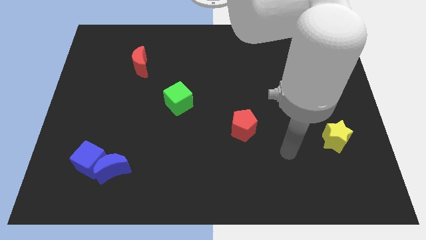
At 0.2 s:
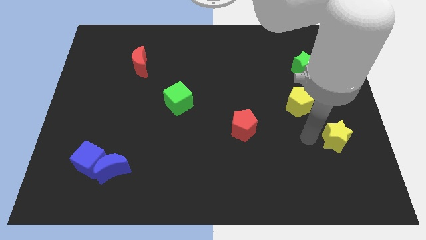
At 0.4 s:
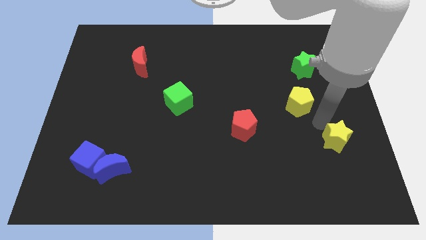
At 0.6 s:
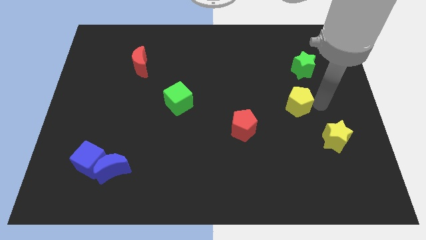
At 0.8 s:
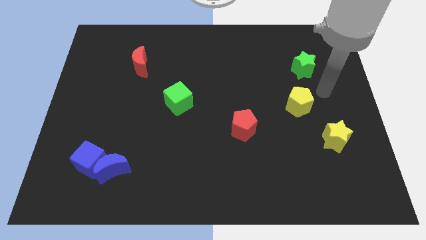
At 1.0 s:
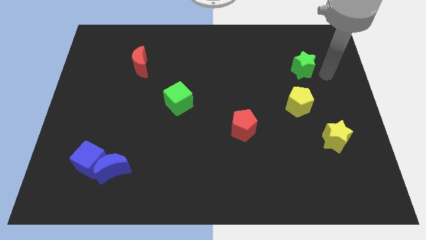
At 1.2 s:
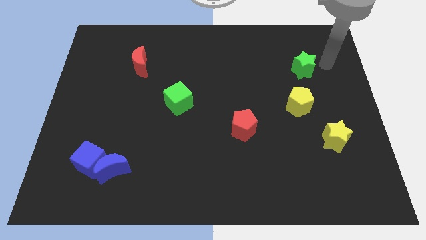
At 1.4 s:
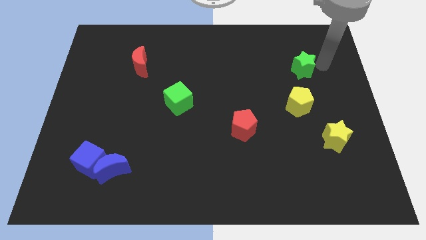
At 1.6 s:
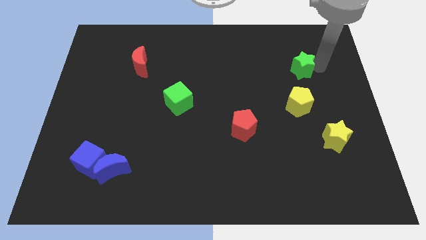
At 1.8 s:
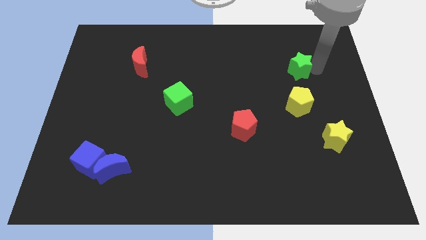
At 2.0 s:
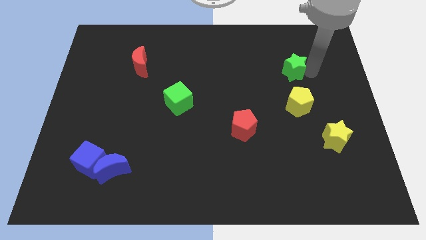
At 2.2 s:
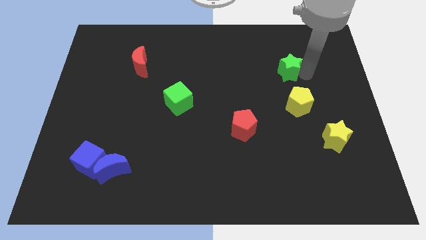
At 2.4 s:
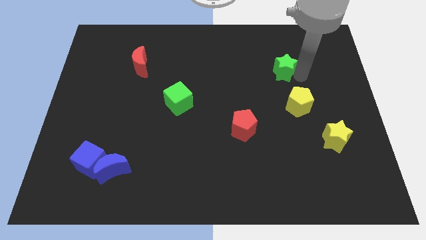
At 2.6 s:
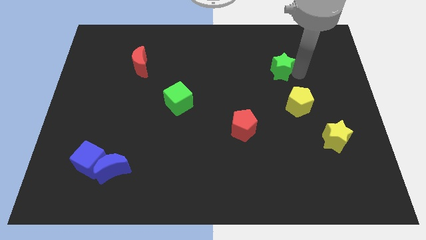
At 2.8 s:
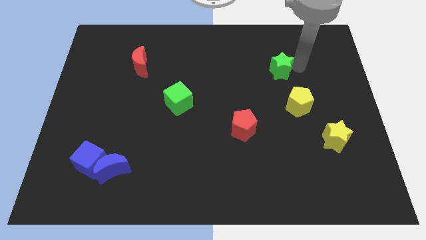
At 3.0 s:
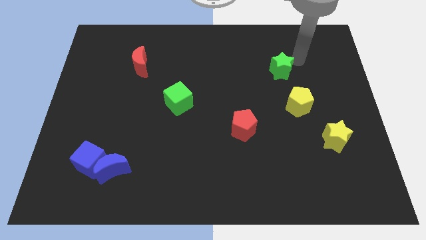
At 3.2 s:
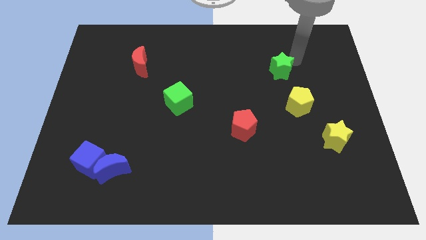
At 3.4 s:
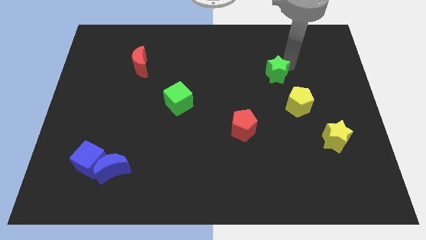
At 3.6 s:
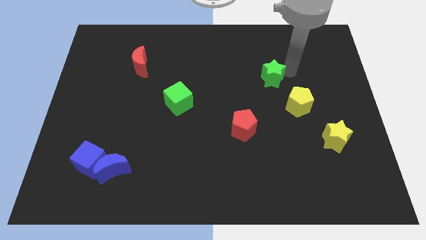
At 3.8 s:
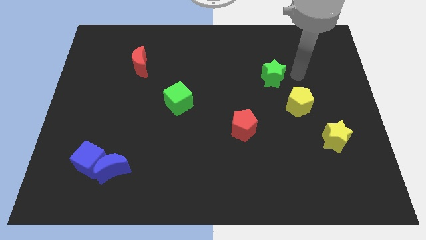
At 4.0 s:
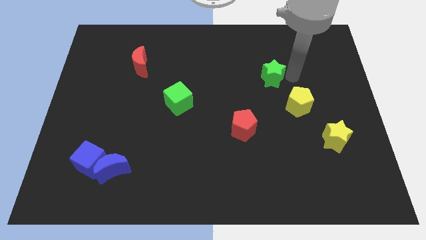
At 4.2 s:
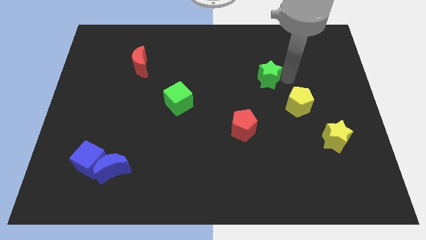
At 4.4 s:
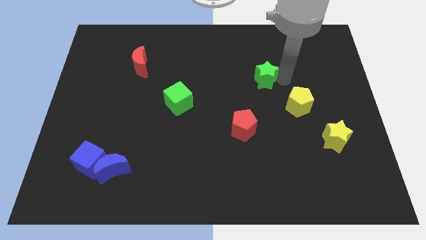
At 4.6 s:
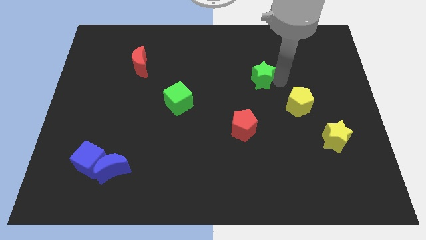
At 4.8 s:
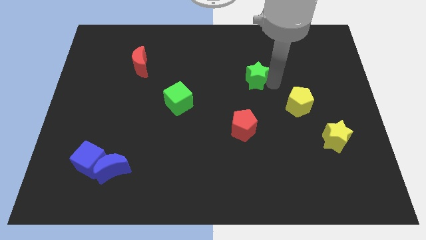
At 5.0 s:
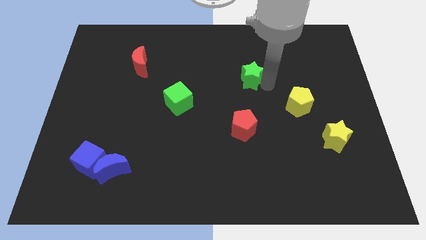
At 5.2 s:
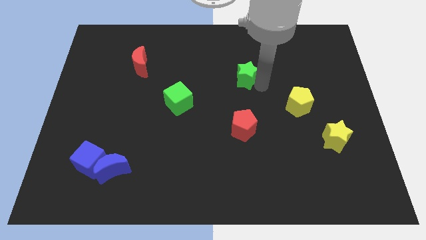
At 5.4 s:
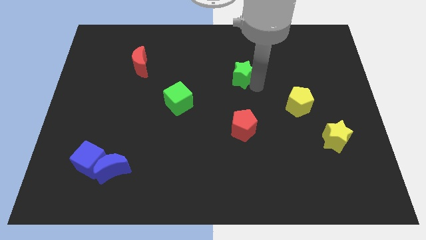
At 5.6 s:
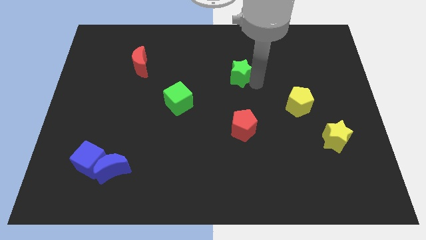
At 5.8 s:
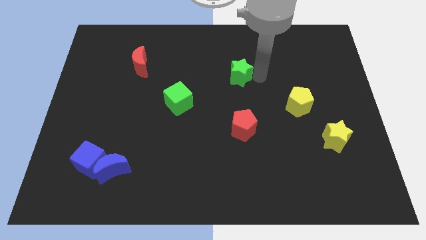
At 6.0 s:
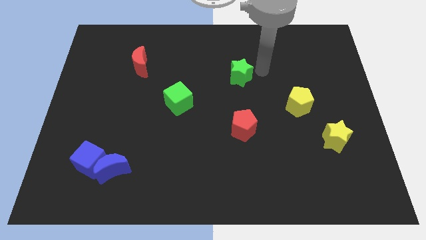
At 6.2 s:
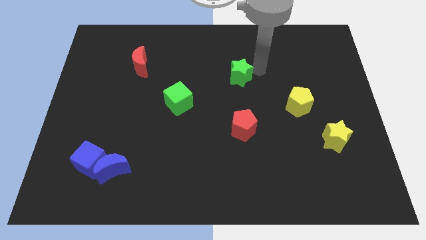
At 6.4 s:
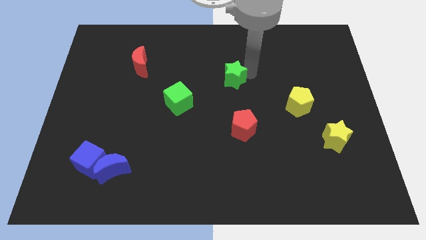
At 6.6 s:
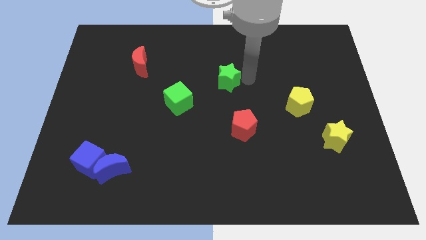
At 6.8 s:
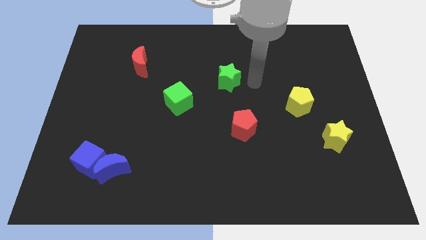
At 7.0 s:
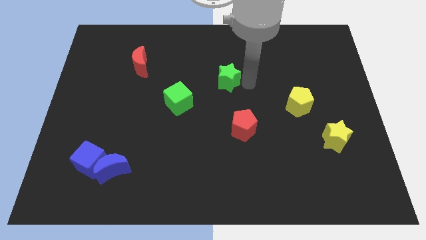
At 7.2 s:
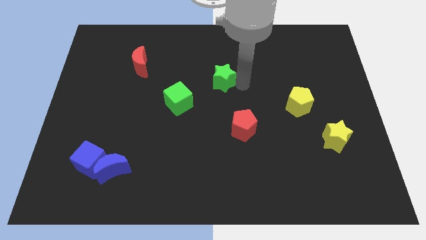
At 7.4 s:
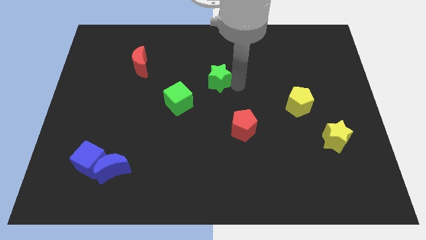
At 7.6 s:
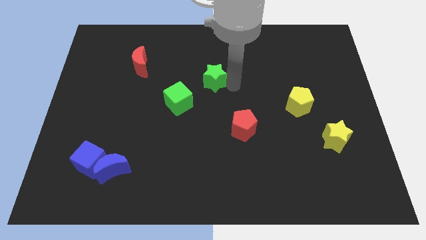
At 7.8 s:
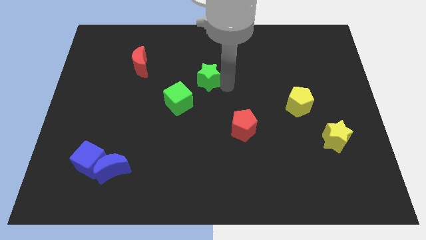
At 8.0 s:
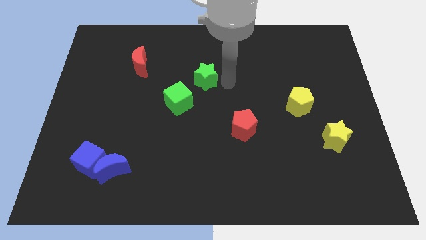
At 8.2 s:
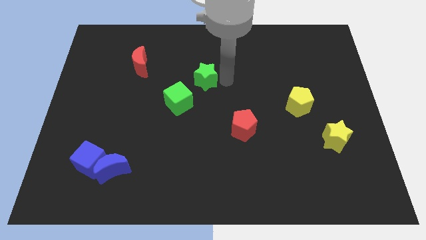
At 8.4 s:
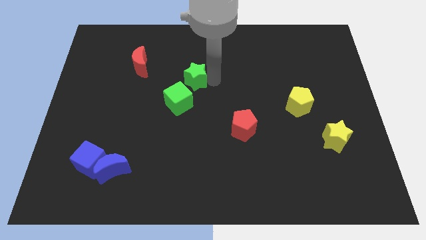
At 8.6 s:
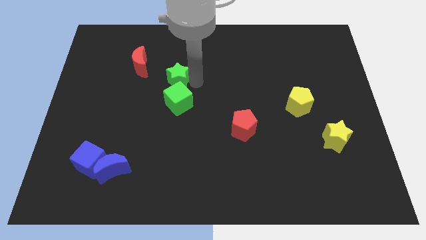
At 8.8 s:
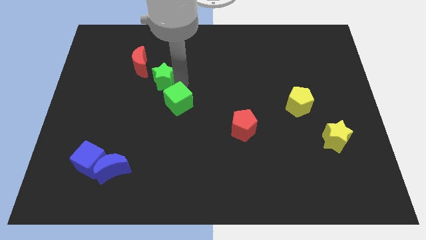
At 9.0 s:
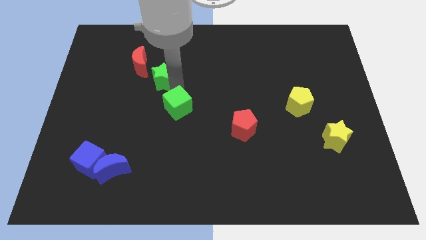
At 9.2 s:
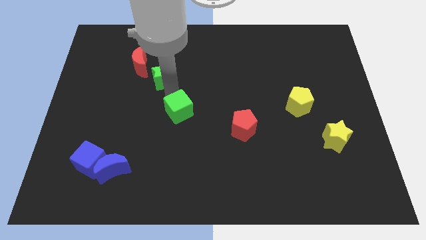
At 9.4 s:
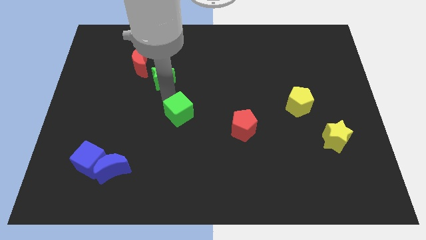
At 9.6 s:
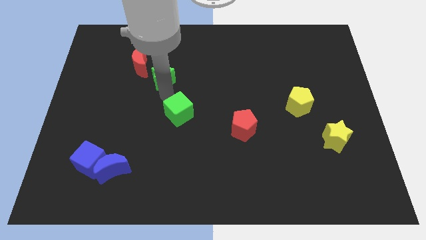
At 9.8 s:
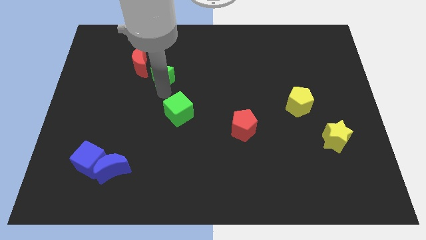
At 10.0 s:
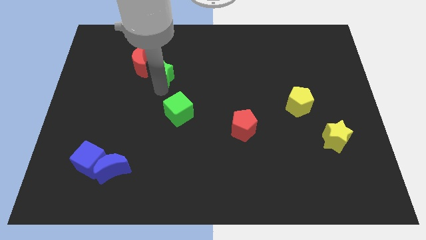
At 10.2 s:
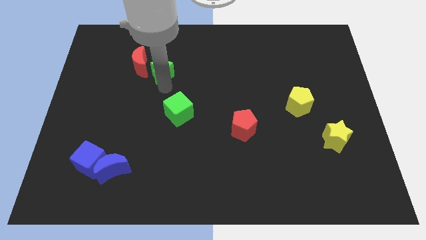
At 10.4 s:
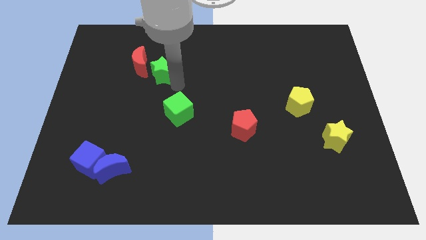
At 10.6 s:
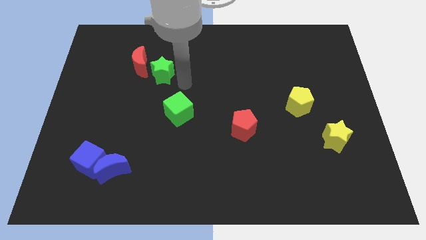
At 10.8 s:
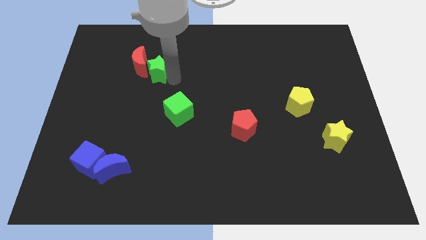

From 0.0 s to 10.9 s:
push the green star next to the red moon

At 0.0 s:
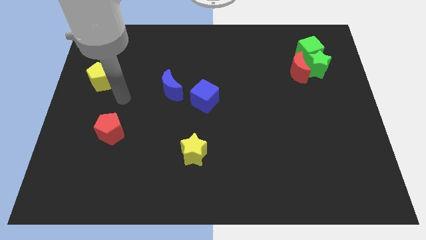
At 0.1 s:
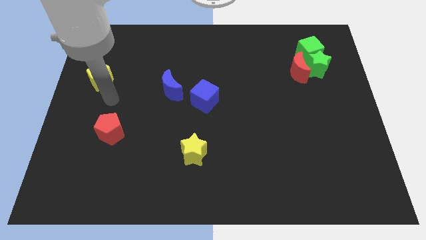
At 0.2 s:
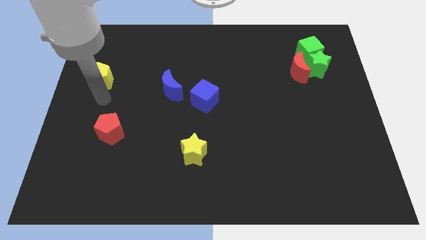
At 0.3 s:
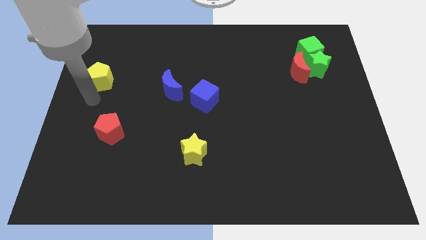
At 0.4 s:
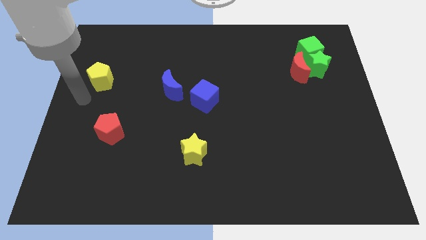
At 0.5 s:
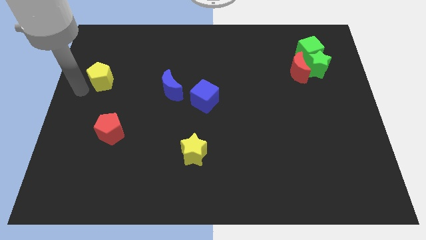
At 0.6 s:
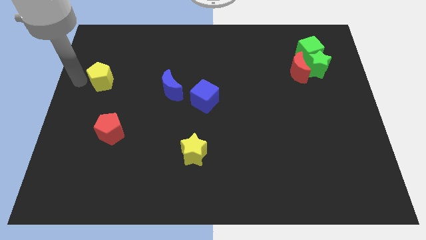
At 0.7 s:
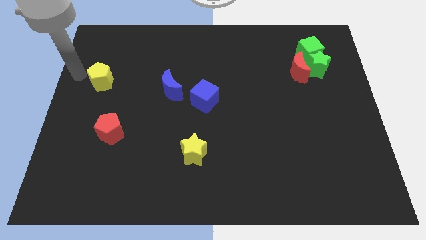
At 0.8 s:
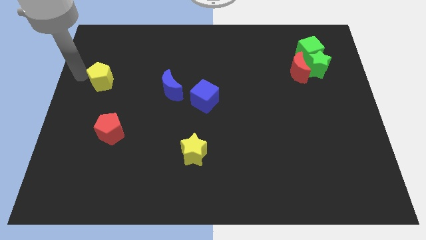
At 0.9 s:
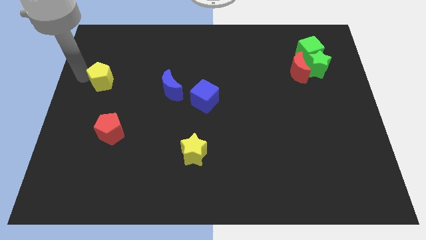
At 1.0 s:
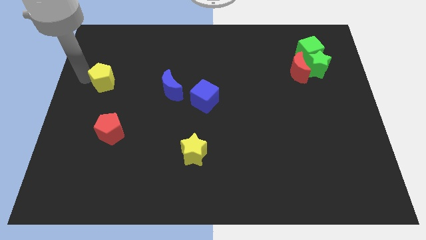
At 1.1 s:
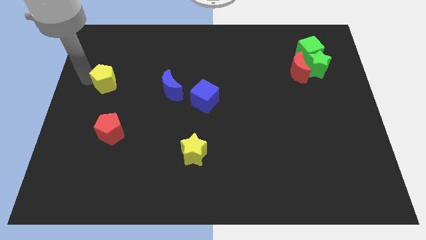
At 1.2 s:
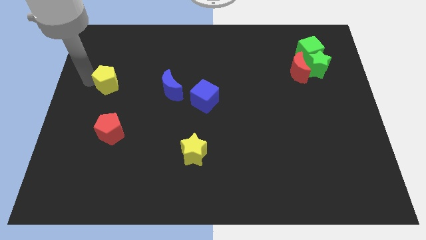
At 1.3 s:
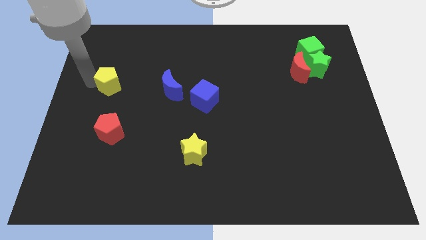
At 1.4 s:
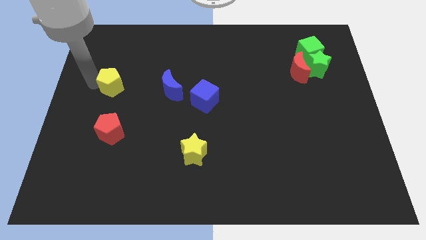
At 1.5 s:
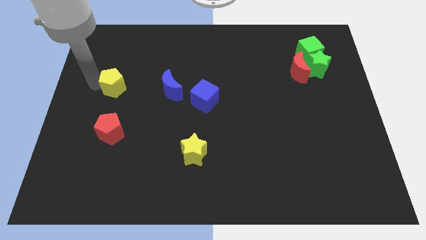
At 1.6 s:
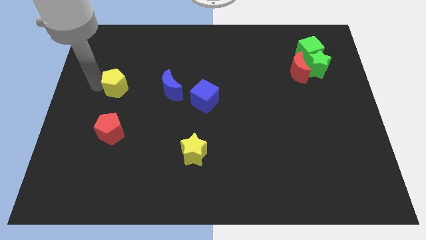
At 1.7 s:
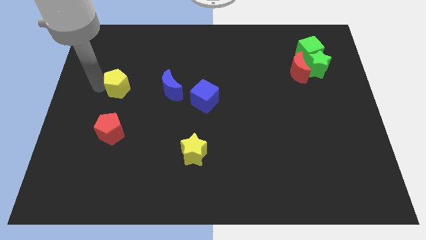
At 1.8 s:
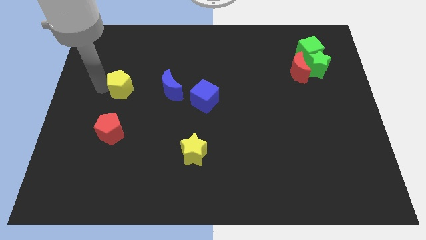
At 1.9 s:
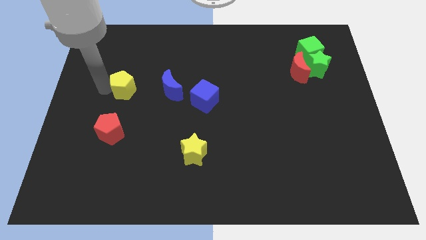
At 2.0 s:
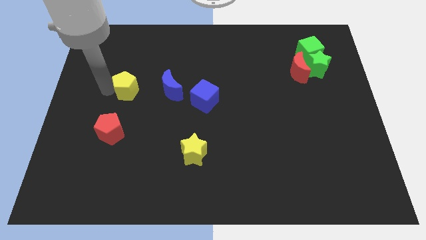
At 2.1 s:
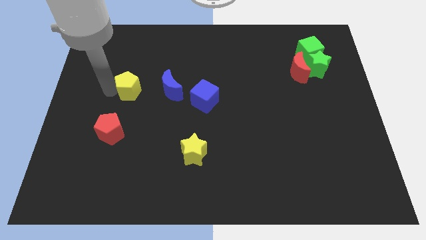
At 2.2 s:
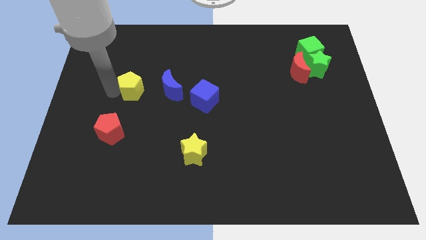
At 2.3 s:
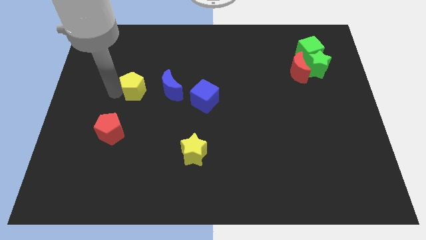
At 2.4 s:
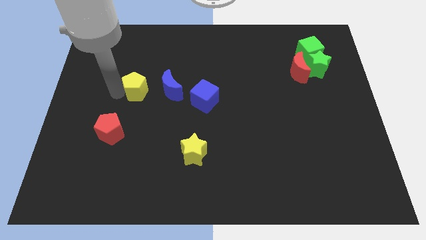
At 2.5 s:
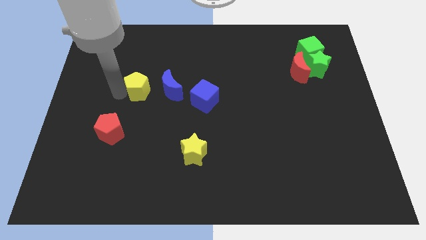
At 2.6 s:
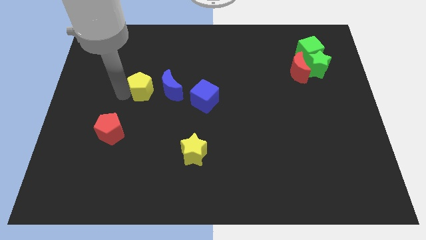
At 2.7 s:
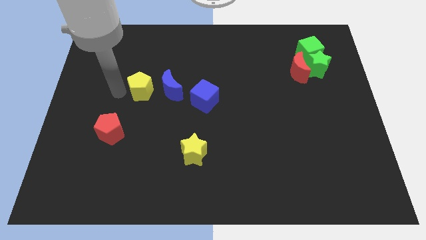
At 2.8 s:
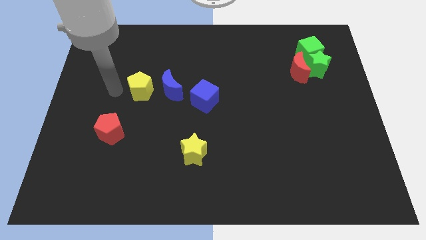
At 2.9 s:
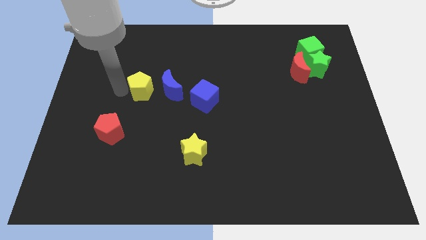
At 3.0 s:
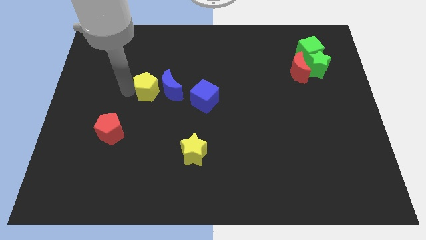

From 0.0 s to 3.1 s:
push the yellow pentagon next to the blue moon
